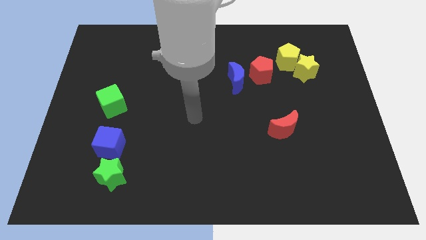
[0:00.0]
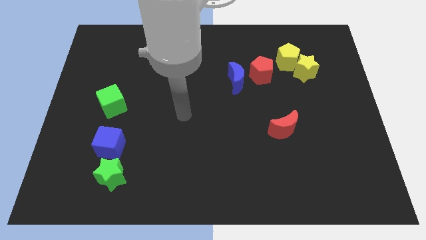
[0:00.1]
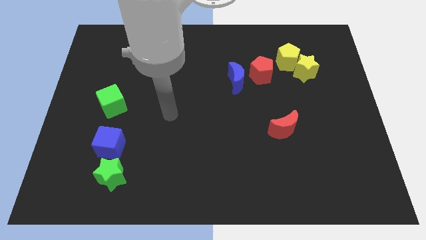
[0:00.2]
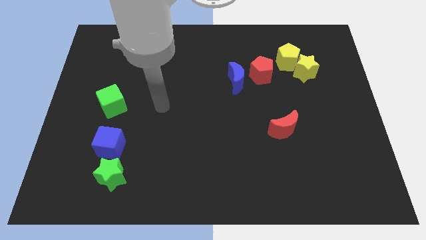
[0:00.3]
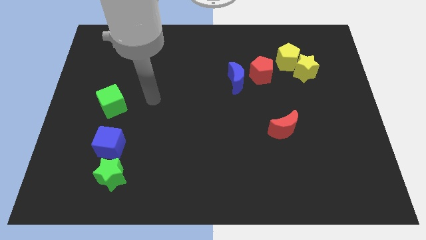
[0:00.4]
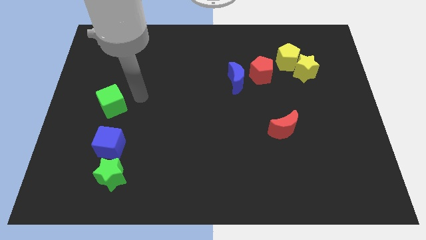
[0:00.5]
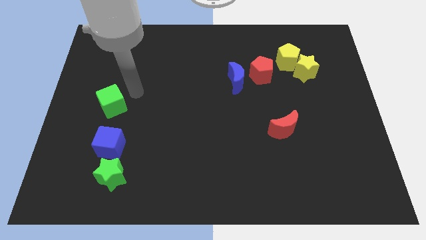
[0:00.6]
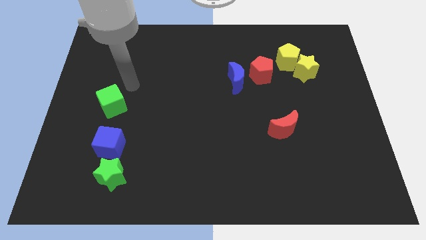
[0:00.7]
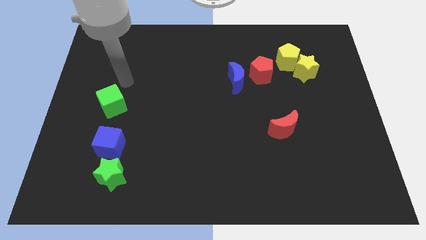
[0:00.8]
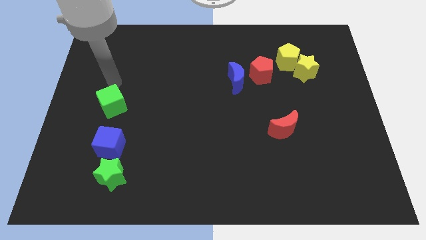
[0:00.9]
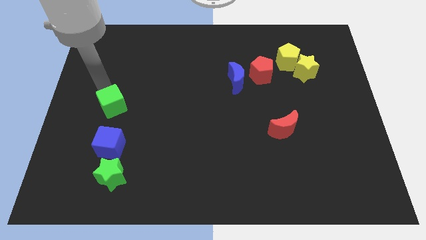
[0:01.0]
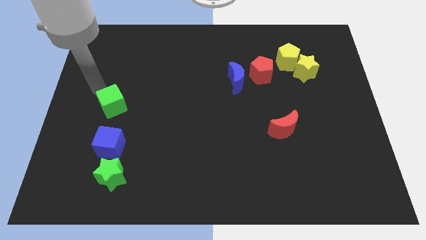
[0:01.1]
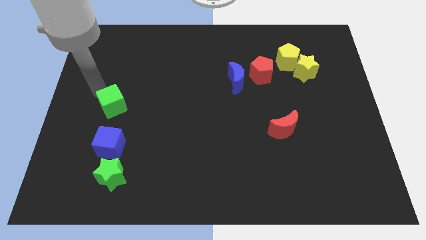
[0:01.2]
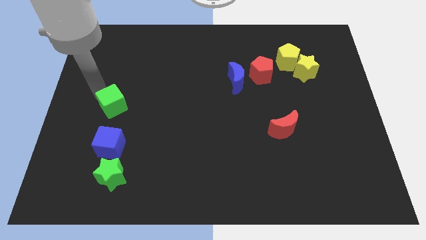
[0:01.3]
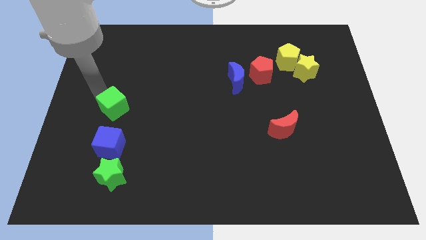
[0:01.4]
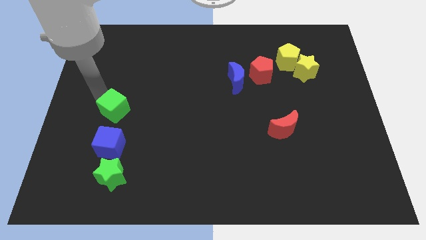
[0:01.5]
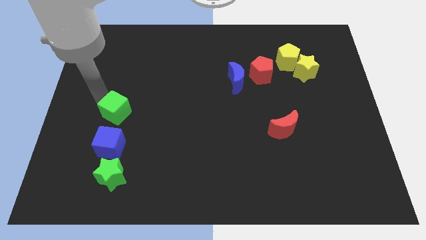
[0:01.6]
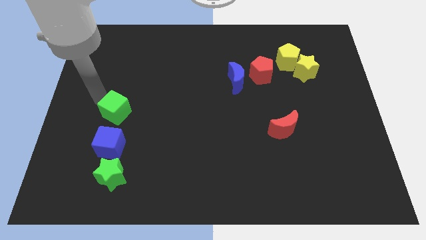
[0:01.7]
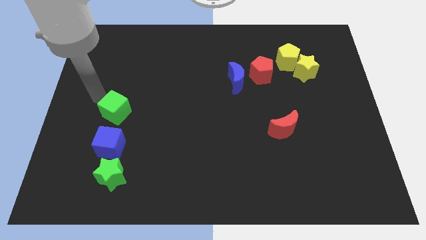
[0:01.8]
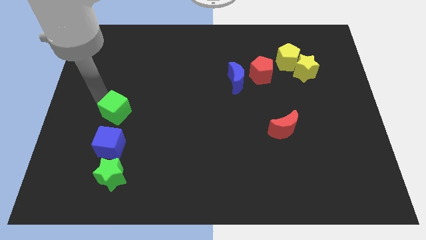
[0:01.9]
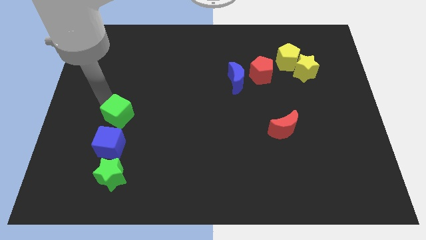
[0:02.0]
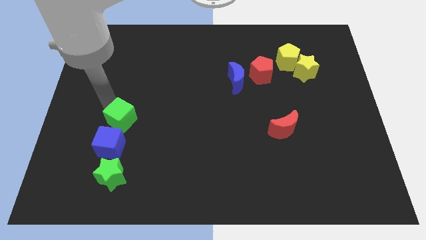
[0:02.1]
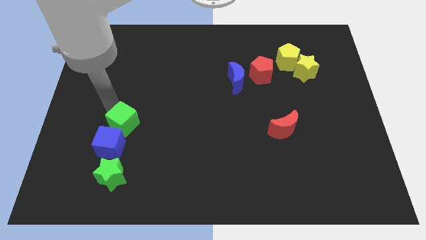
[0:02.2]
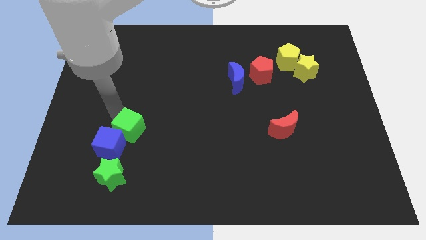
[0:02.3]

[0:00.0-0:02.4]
slightly move the green cube down and then to the right

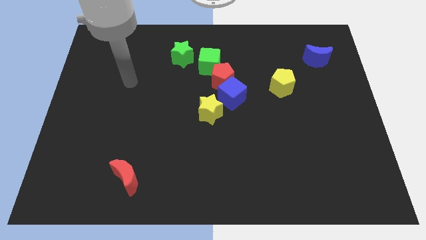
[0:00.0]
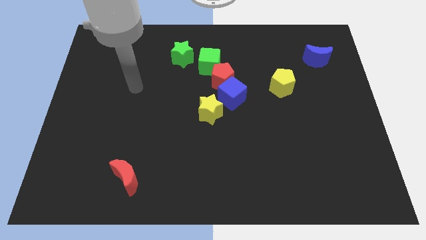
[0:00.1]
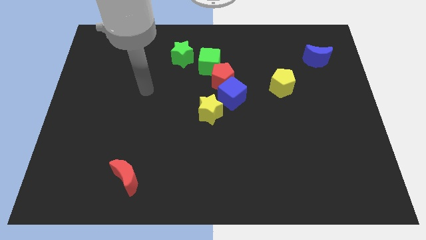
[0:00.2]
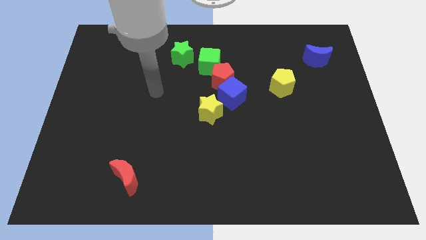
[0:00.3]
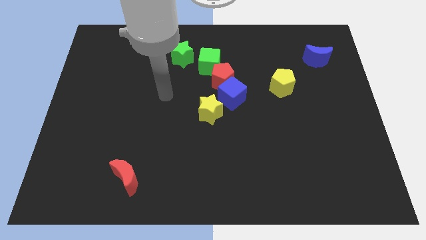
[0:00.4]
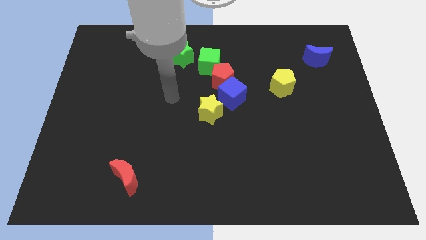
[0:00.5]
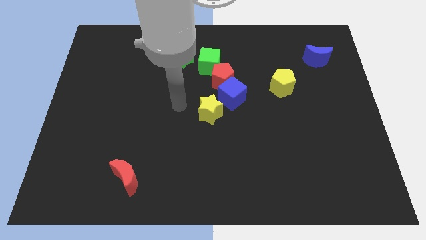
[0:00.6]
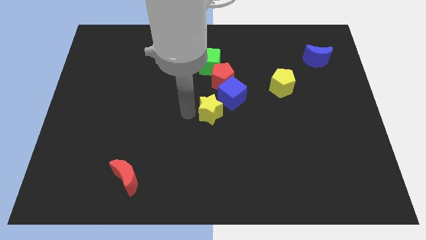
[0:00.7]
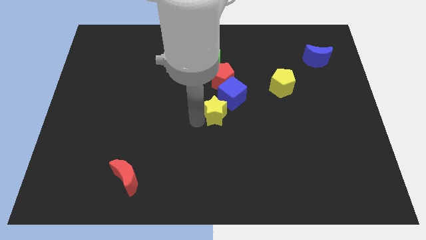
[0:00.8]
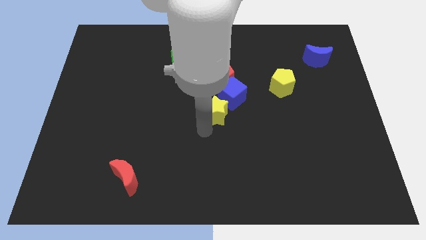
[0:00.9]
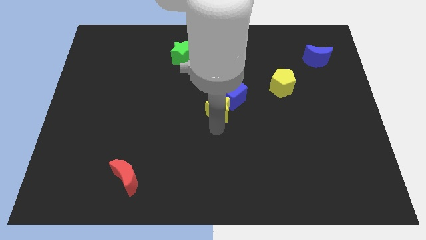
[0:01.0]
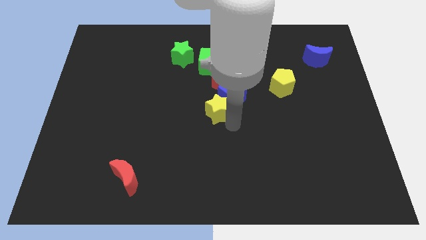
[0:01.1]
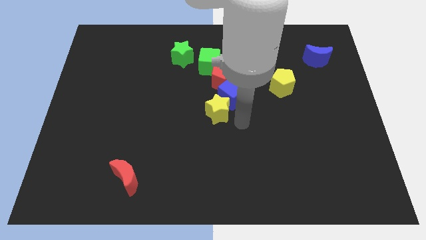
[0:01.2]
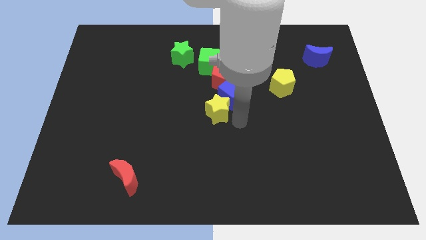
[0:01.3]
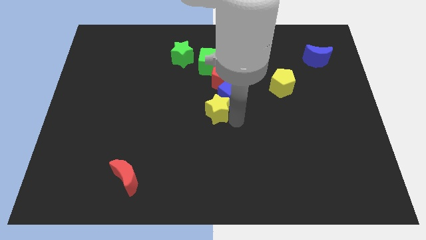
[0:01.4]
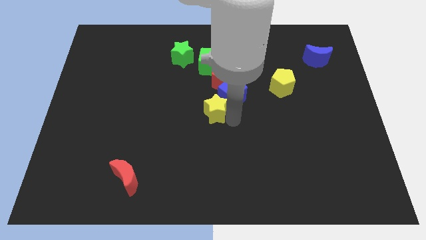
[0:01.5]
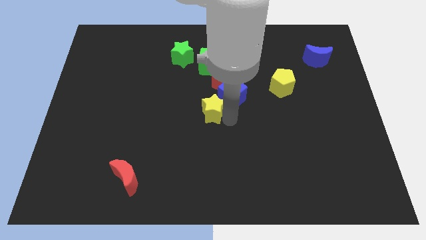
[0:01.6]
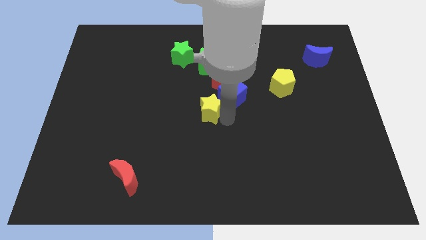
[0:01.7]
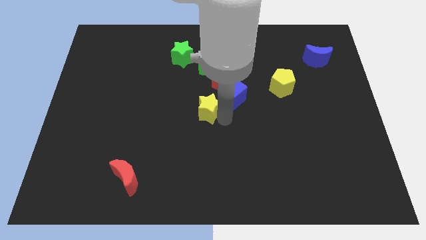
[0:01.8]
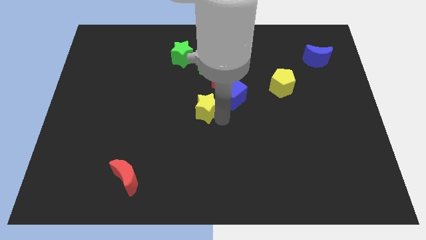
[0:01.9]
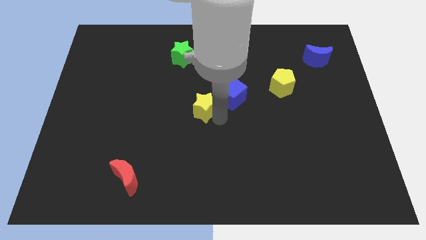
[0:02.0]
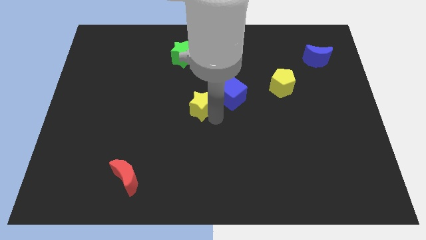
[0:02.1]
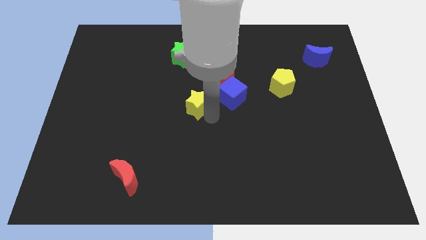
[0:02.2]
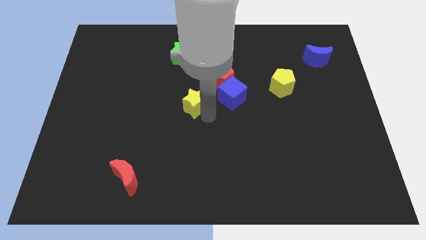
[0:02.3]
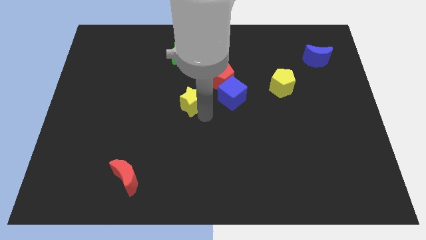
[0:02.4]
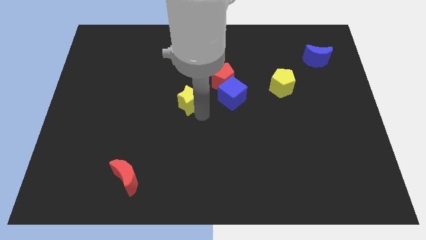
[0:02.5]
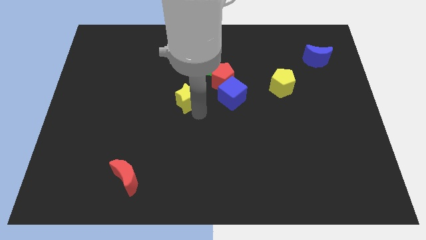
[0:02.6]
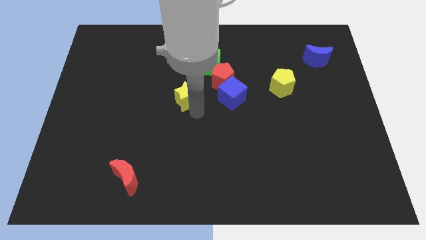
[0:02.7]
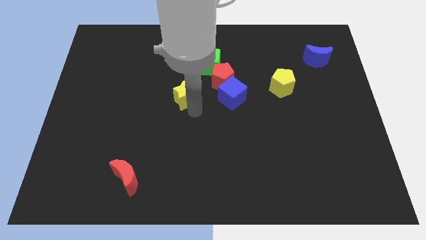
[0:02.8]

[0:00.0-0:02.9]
slightly push the yellow star up and left

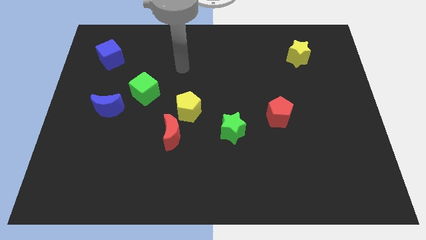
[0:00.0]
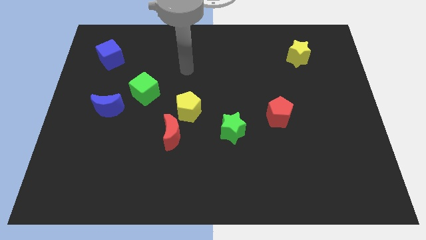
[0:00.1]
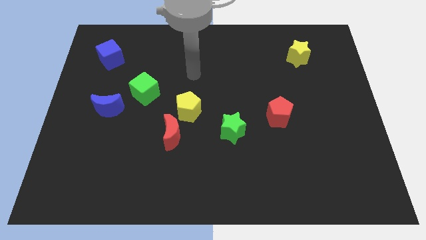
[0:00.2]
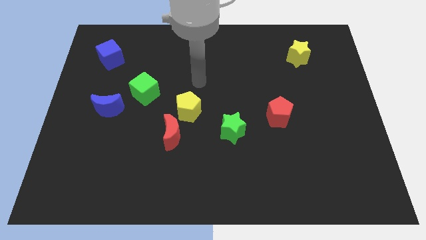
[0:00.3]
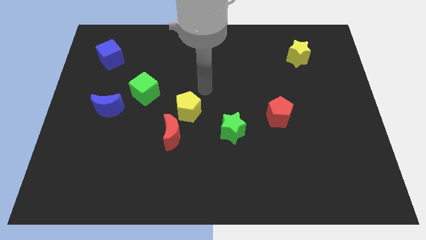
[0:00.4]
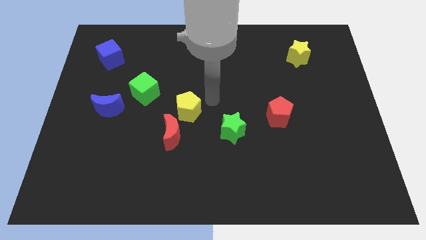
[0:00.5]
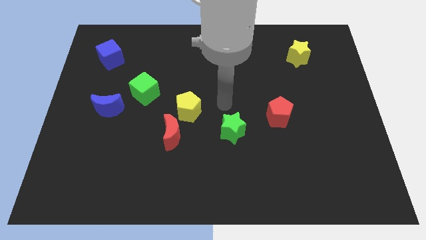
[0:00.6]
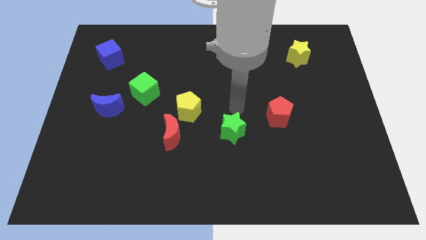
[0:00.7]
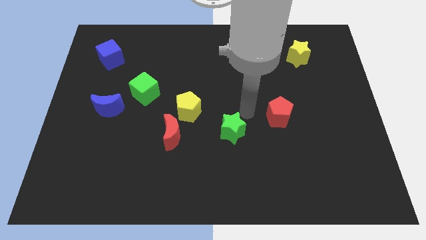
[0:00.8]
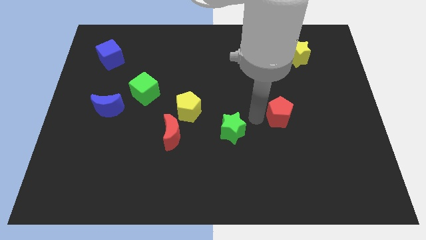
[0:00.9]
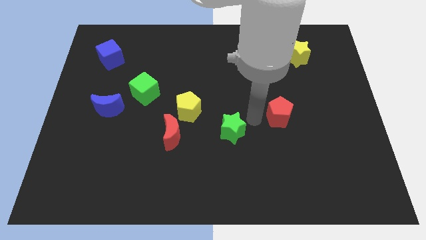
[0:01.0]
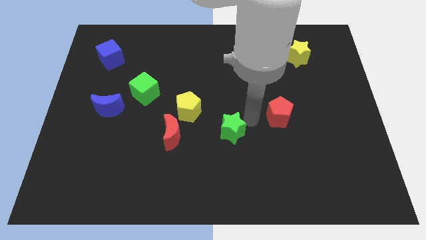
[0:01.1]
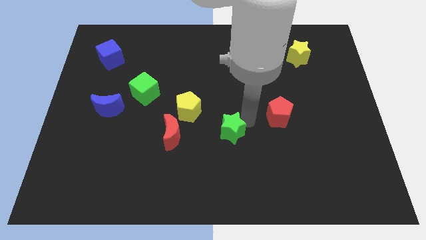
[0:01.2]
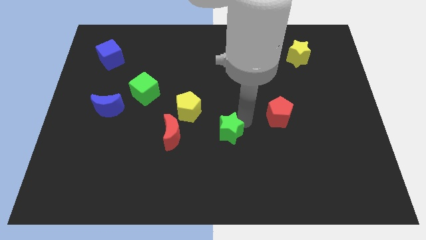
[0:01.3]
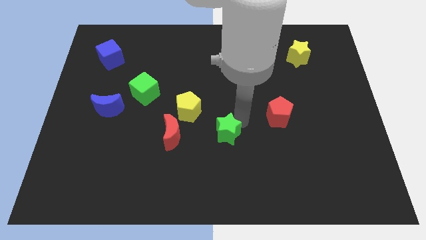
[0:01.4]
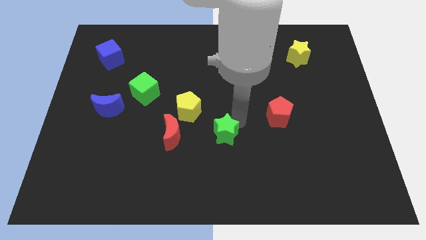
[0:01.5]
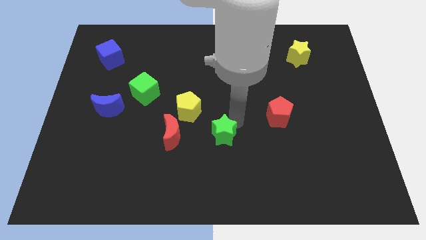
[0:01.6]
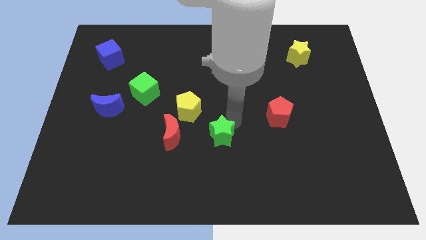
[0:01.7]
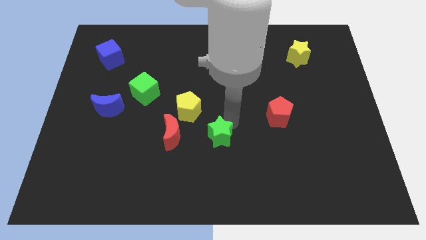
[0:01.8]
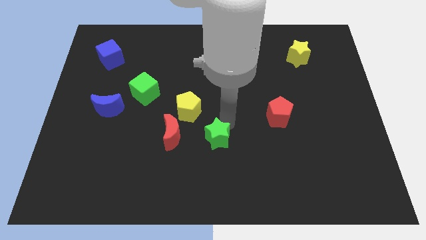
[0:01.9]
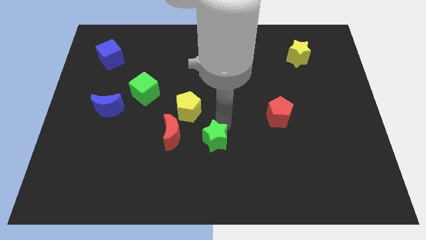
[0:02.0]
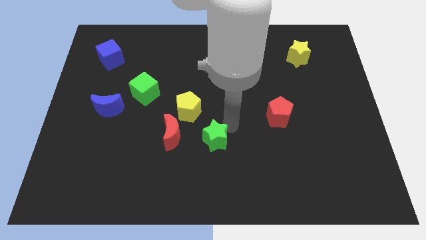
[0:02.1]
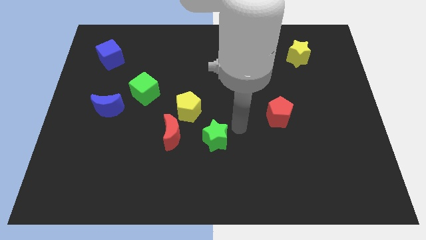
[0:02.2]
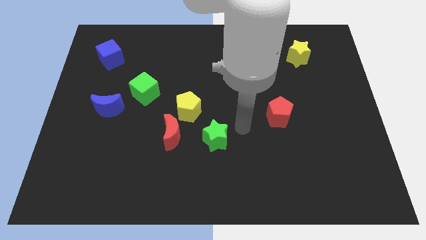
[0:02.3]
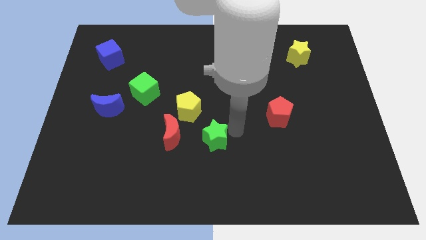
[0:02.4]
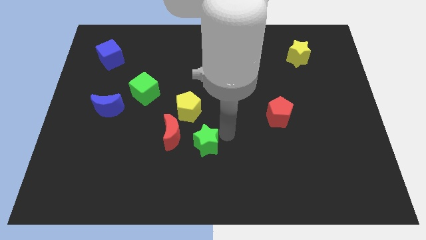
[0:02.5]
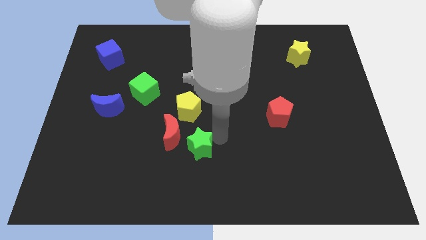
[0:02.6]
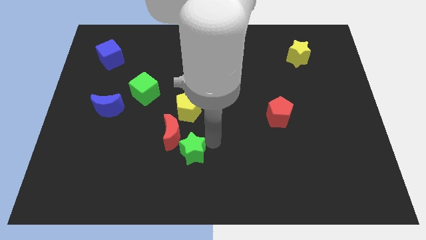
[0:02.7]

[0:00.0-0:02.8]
slightly slide the green star left
